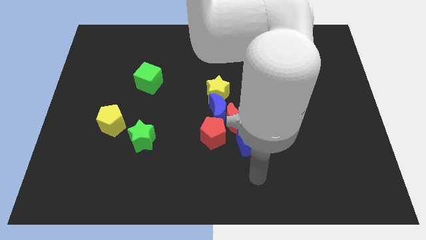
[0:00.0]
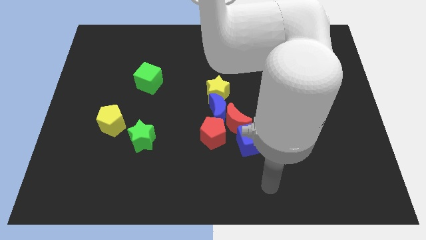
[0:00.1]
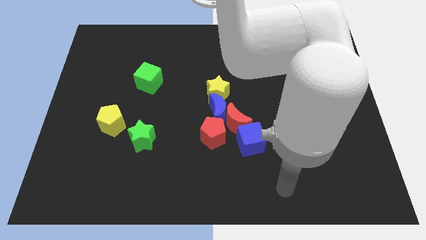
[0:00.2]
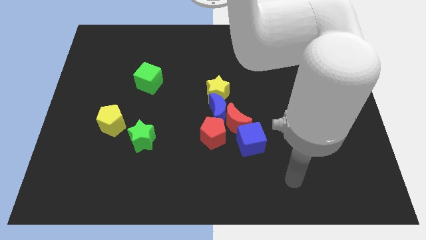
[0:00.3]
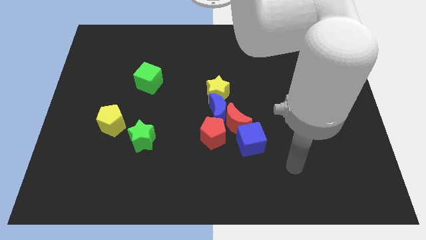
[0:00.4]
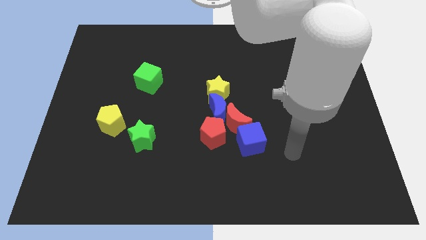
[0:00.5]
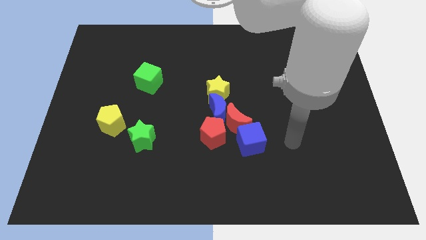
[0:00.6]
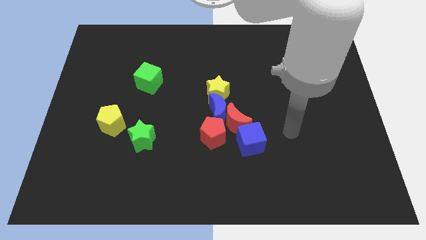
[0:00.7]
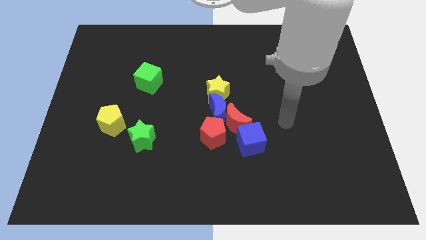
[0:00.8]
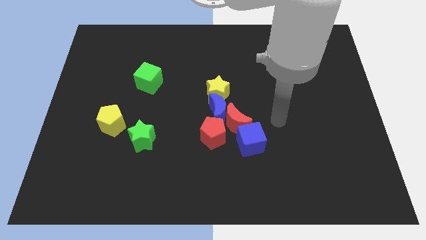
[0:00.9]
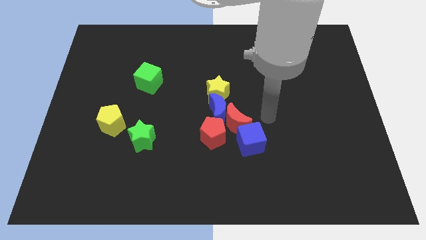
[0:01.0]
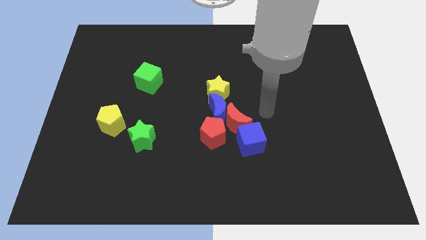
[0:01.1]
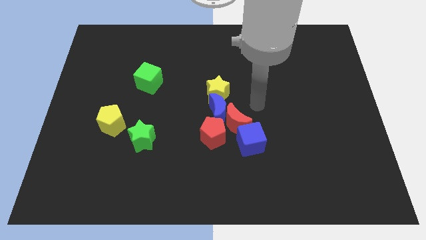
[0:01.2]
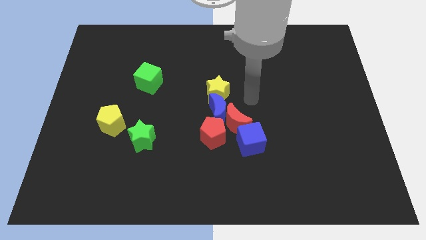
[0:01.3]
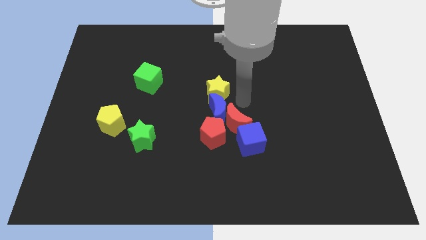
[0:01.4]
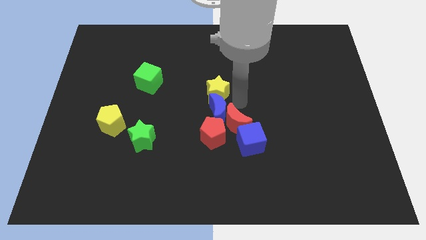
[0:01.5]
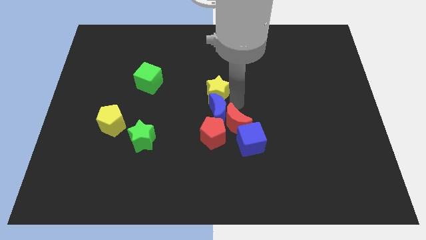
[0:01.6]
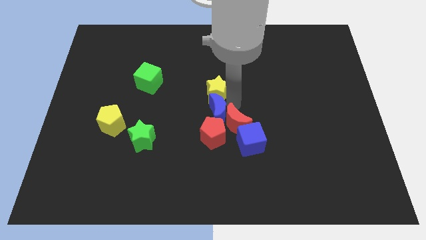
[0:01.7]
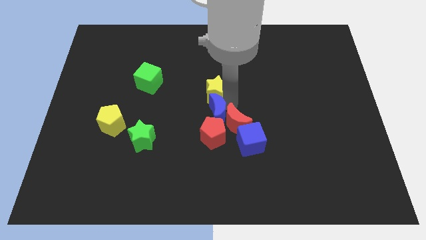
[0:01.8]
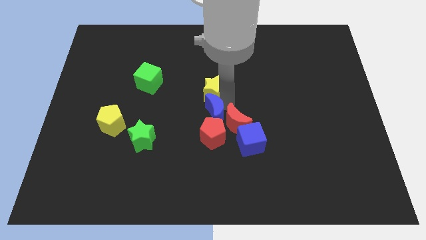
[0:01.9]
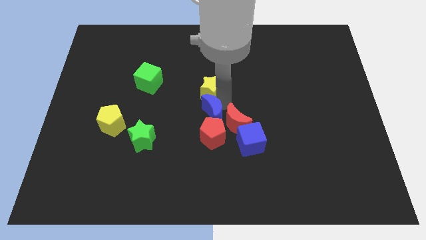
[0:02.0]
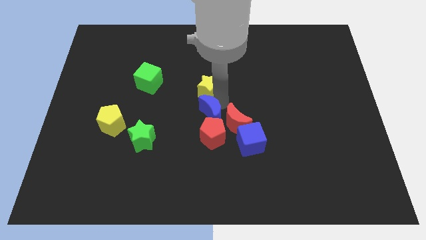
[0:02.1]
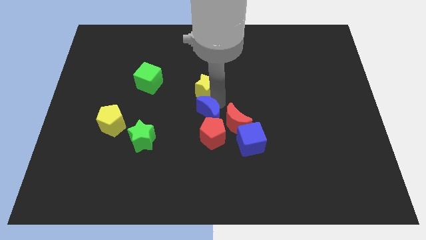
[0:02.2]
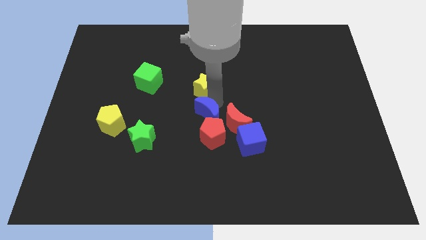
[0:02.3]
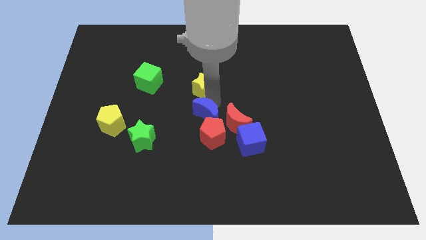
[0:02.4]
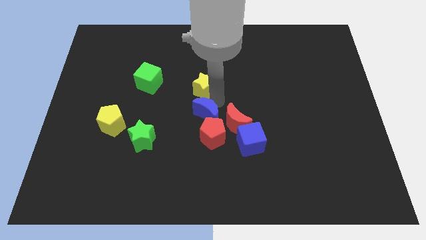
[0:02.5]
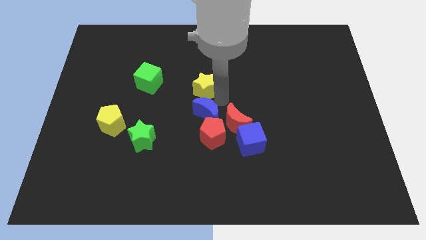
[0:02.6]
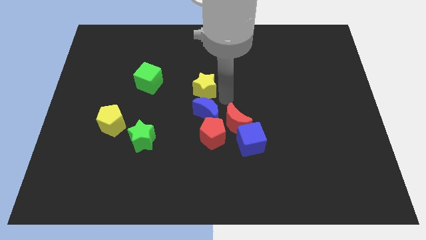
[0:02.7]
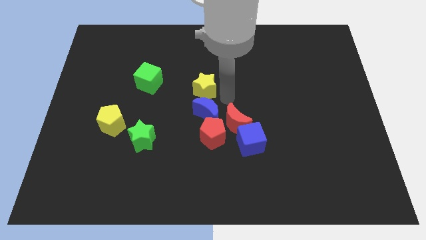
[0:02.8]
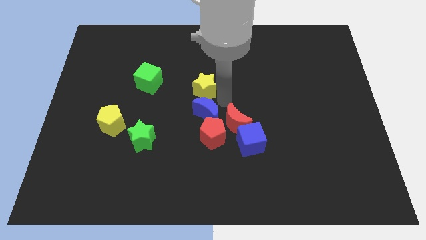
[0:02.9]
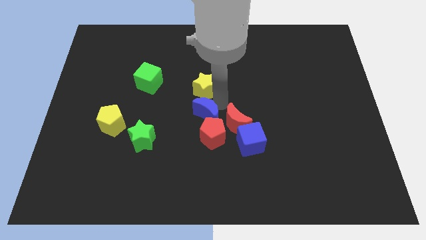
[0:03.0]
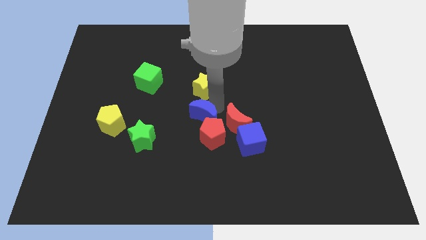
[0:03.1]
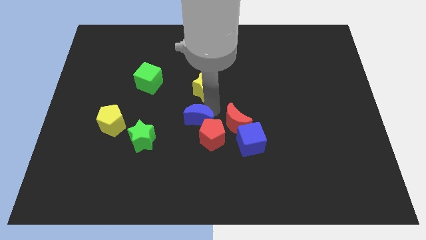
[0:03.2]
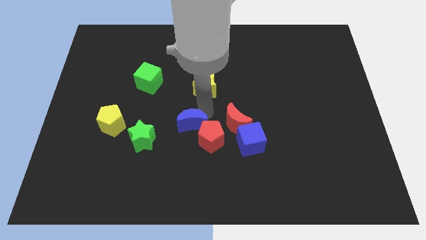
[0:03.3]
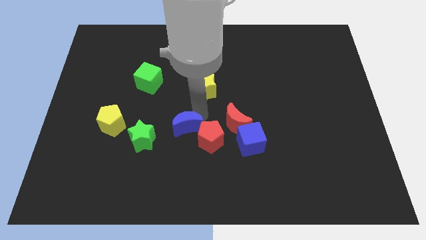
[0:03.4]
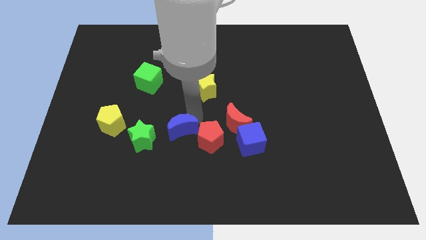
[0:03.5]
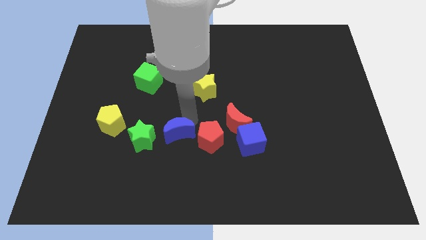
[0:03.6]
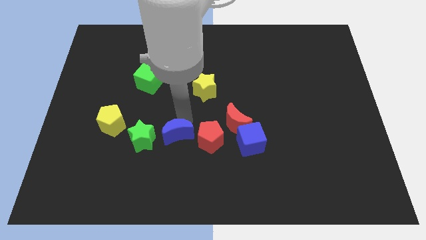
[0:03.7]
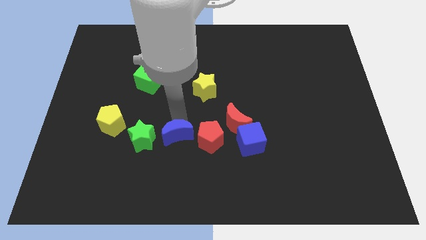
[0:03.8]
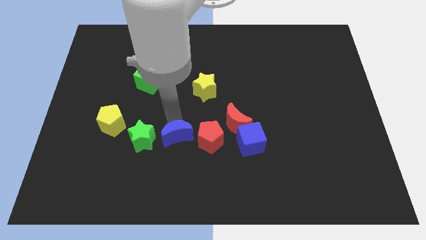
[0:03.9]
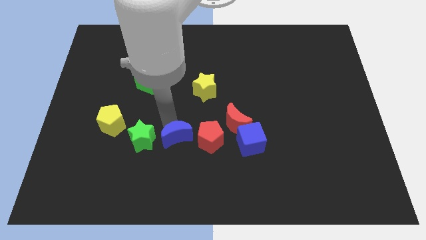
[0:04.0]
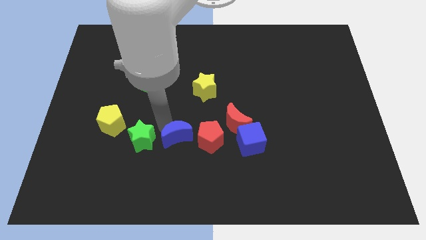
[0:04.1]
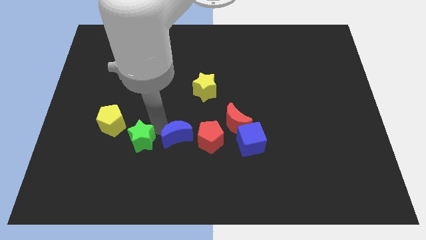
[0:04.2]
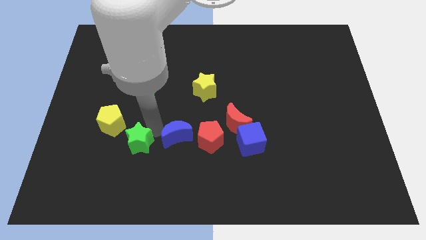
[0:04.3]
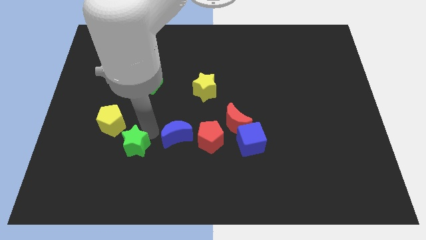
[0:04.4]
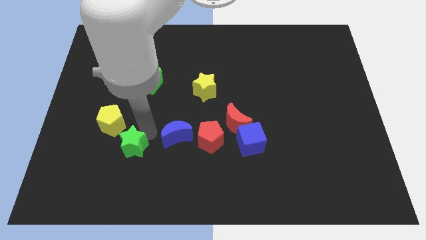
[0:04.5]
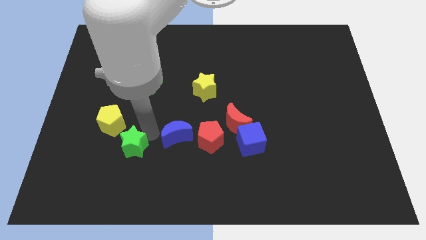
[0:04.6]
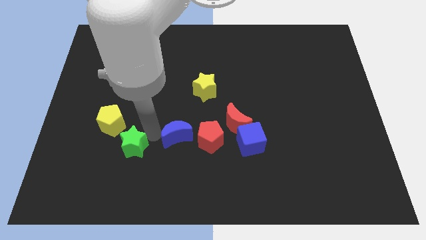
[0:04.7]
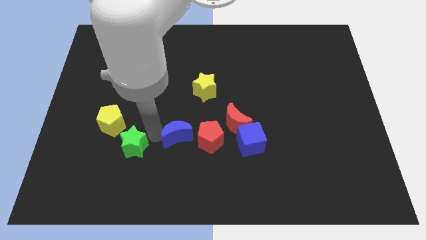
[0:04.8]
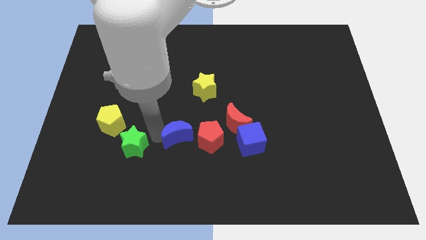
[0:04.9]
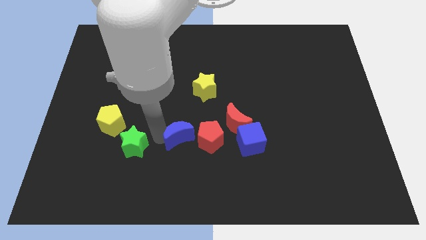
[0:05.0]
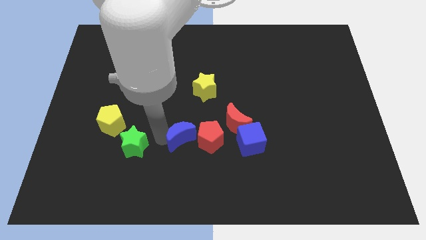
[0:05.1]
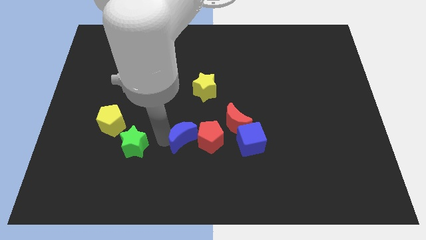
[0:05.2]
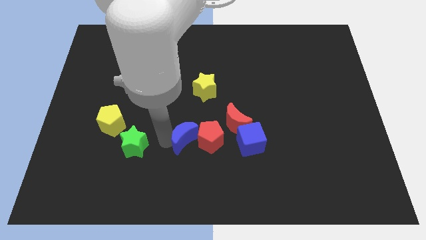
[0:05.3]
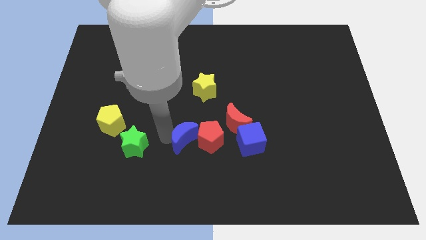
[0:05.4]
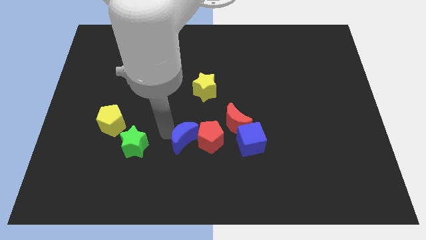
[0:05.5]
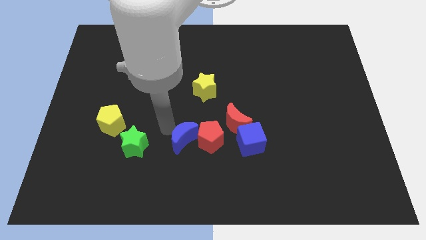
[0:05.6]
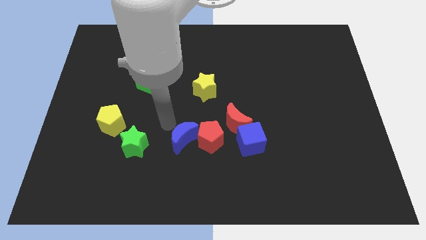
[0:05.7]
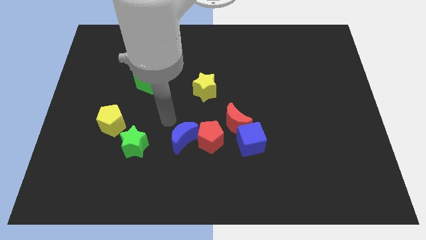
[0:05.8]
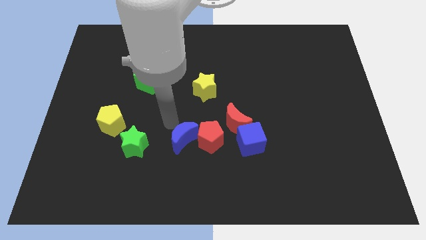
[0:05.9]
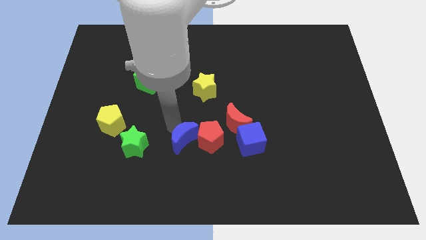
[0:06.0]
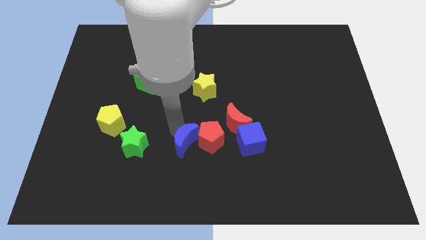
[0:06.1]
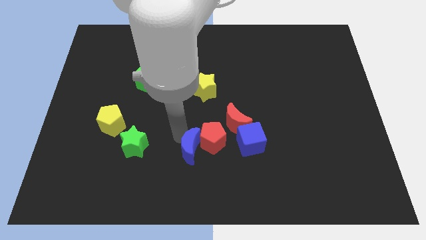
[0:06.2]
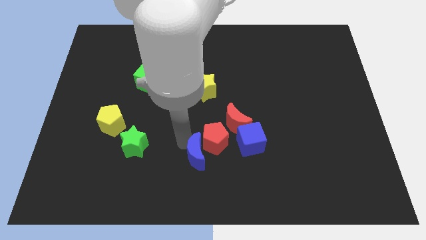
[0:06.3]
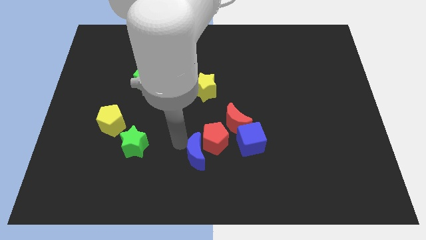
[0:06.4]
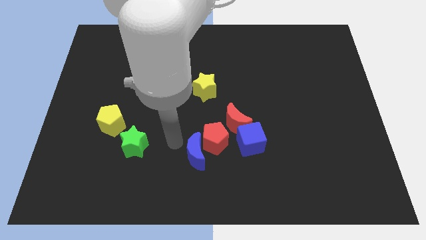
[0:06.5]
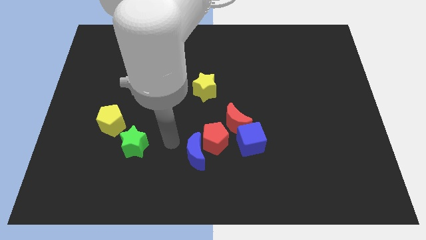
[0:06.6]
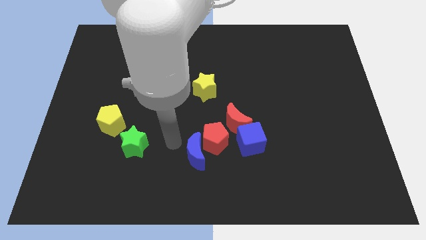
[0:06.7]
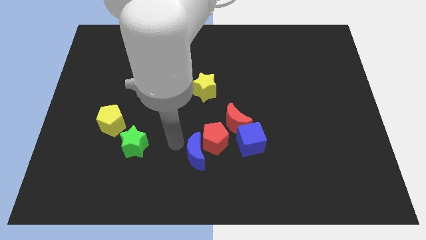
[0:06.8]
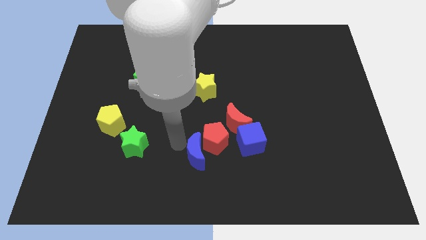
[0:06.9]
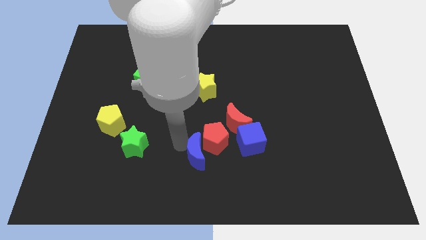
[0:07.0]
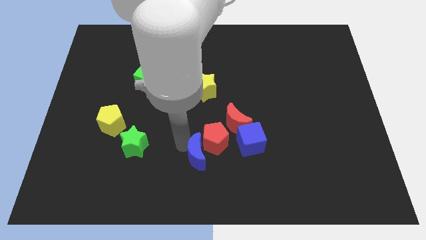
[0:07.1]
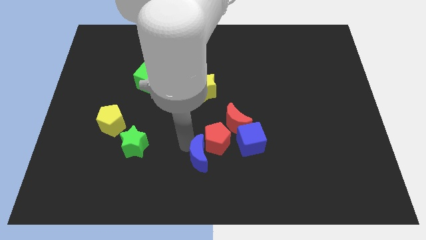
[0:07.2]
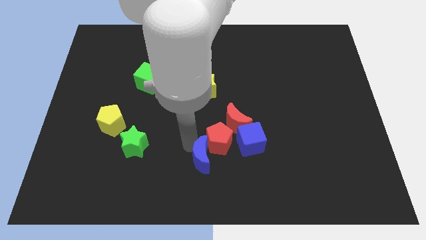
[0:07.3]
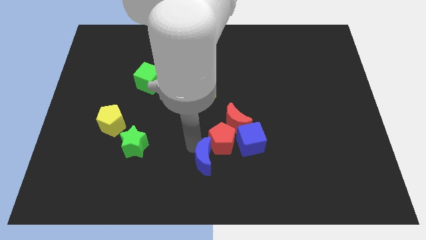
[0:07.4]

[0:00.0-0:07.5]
push the blue moon diagonally down and to the left of the blue cube
